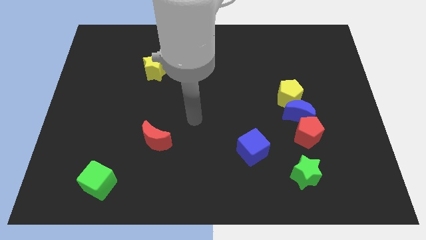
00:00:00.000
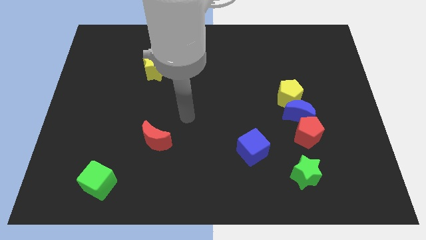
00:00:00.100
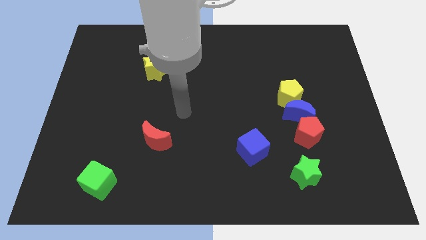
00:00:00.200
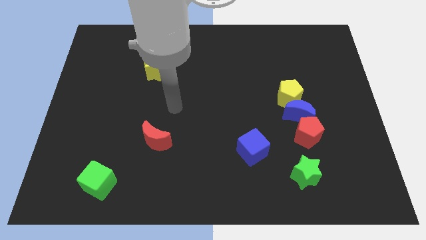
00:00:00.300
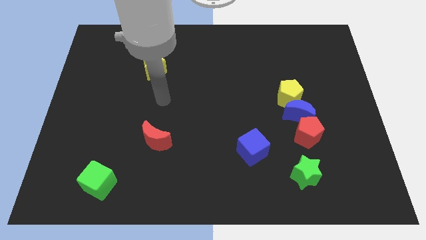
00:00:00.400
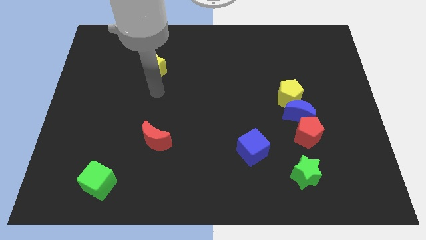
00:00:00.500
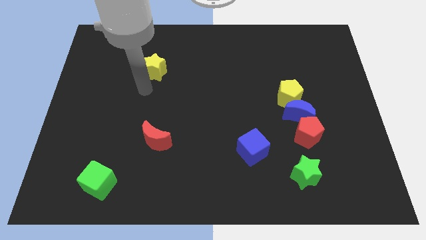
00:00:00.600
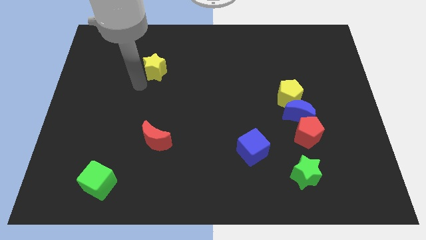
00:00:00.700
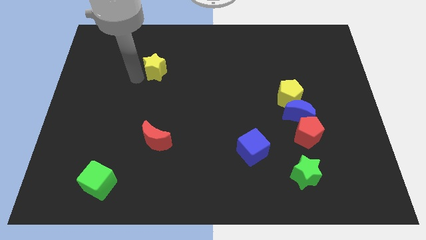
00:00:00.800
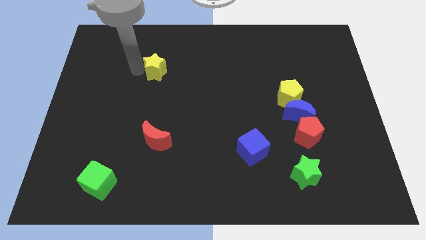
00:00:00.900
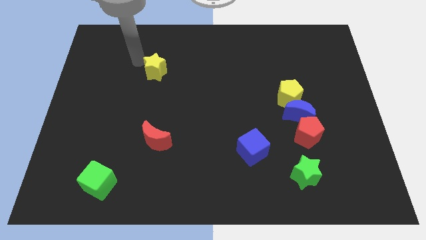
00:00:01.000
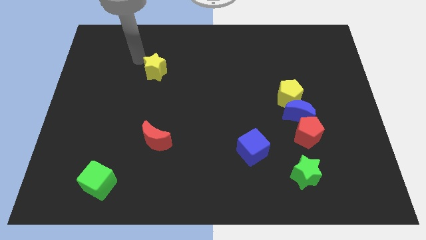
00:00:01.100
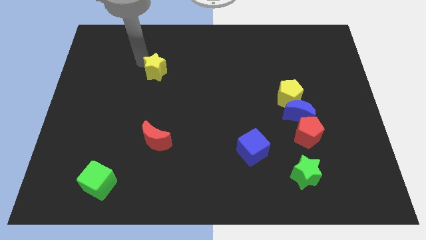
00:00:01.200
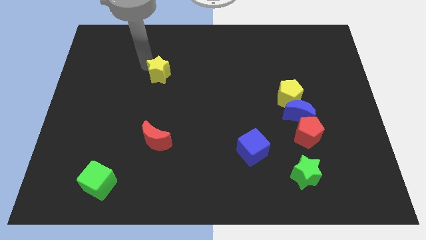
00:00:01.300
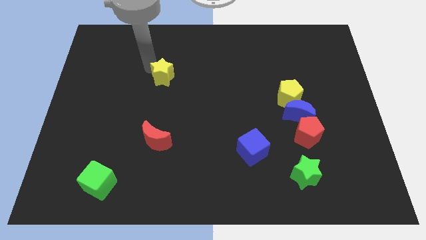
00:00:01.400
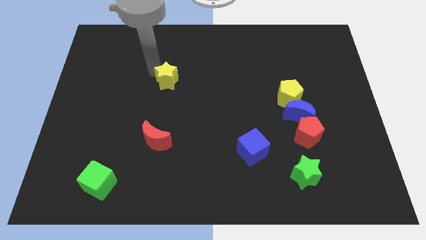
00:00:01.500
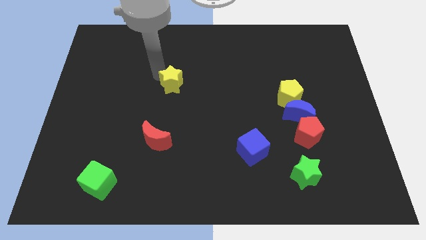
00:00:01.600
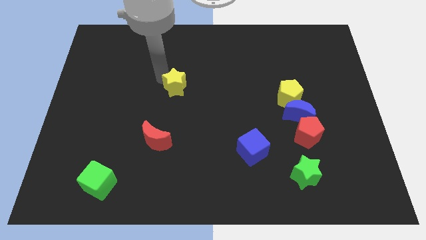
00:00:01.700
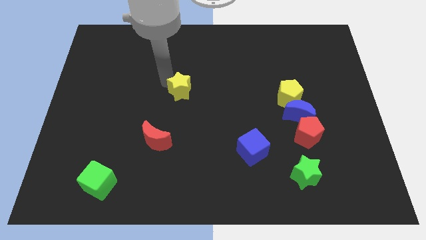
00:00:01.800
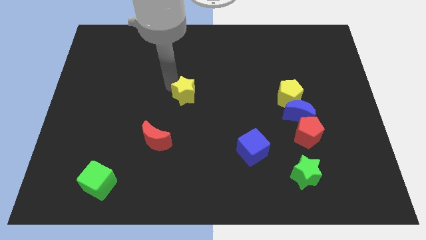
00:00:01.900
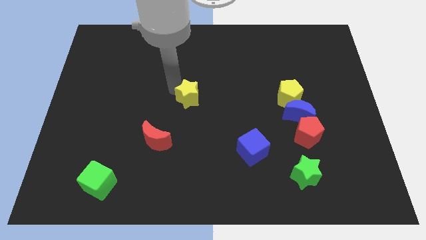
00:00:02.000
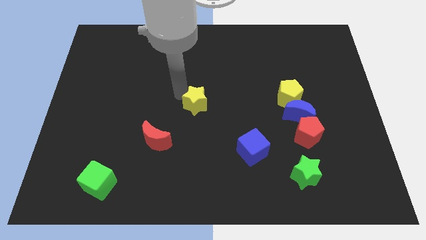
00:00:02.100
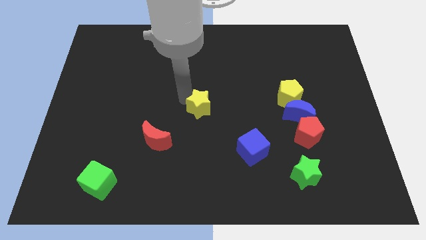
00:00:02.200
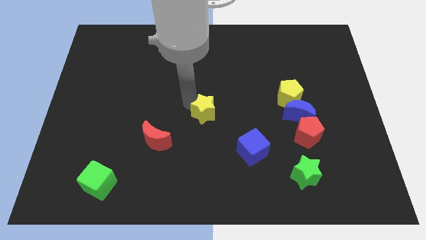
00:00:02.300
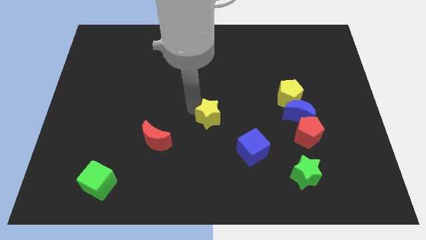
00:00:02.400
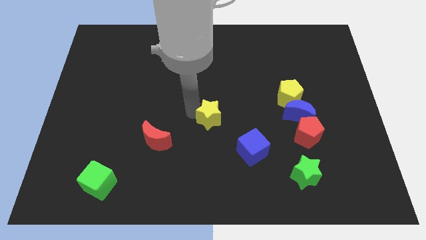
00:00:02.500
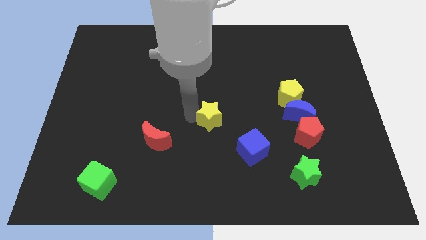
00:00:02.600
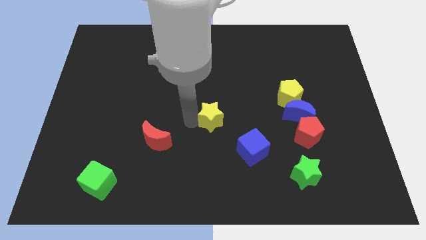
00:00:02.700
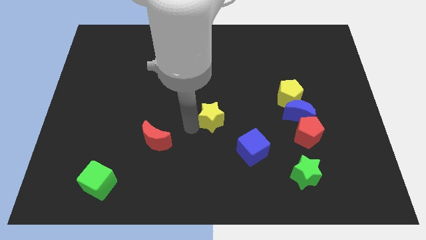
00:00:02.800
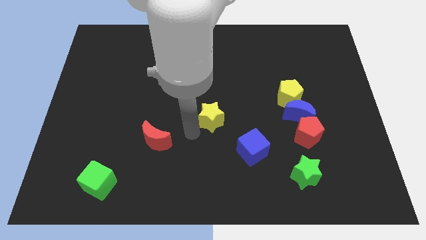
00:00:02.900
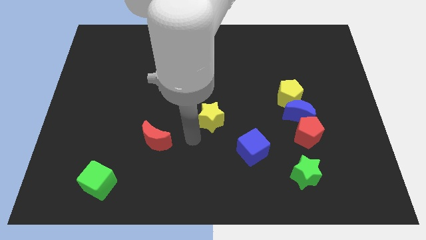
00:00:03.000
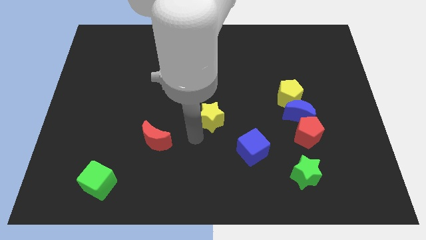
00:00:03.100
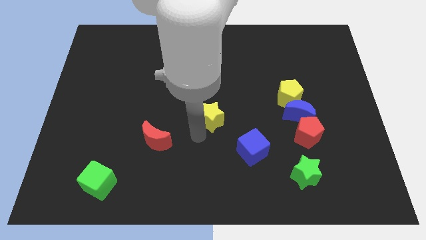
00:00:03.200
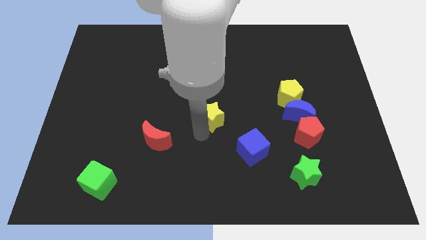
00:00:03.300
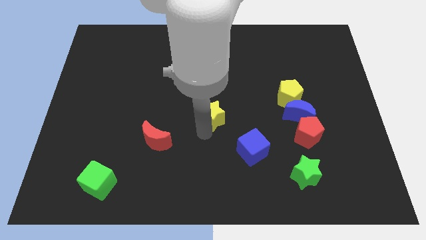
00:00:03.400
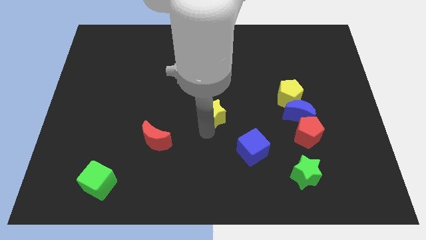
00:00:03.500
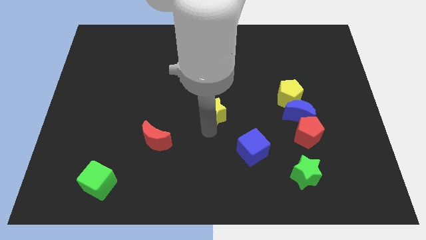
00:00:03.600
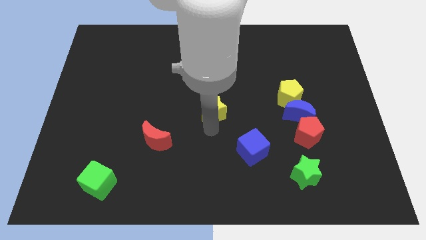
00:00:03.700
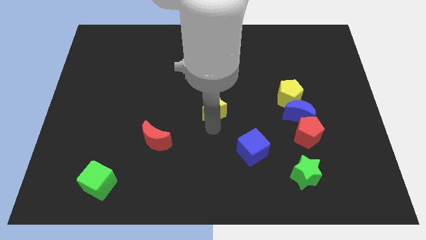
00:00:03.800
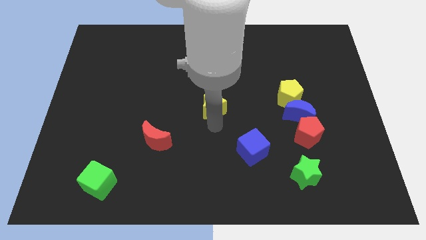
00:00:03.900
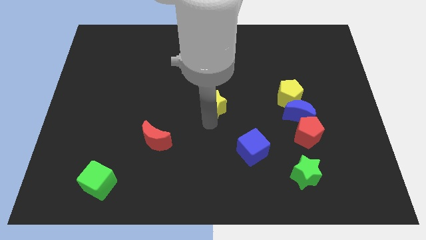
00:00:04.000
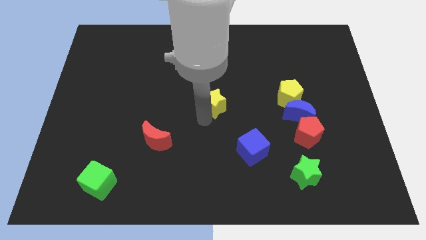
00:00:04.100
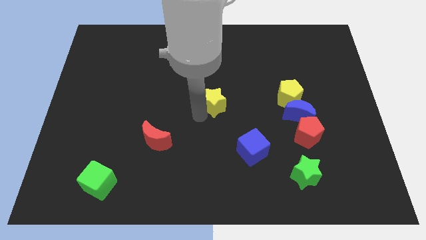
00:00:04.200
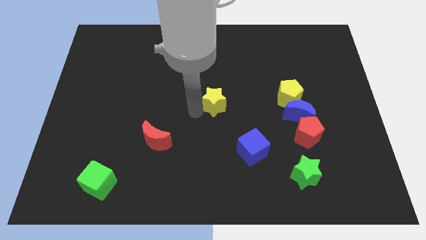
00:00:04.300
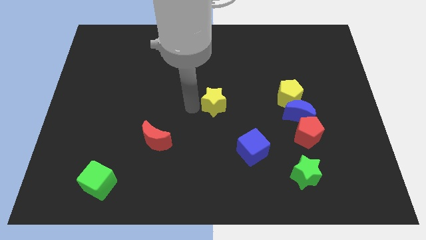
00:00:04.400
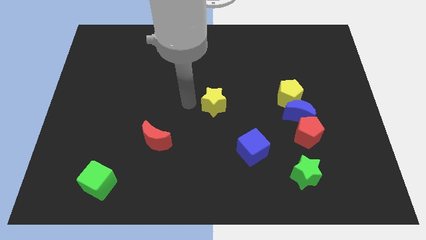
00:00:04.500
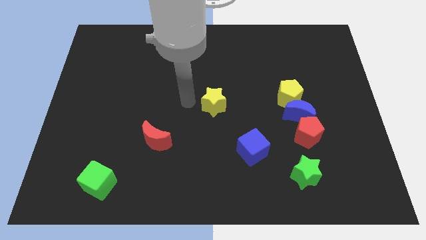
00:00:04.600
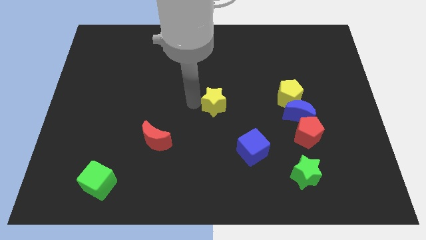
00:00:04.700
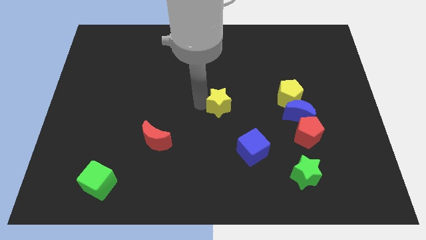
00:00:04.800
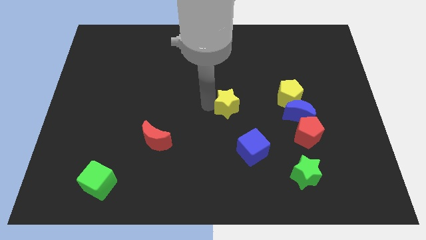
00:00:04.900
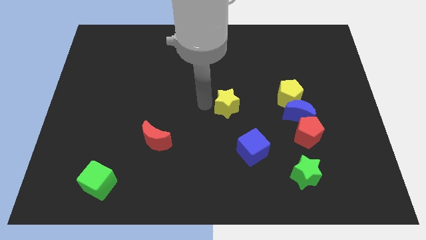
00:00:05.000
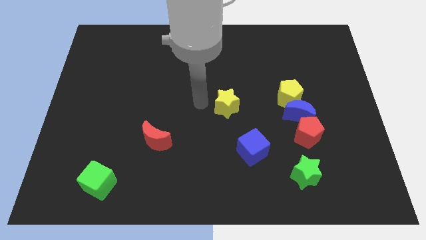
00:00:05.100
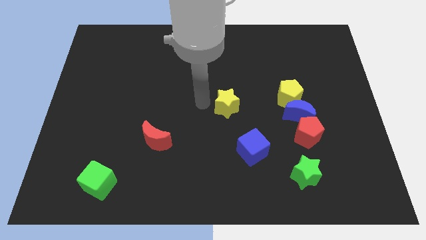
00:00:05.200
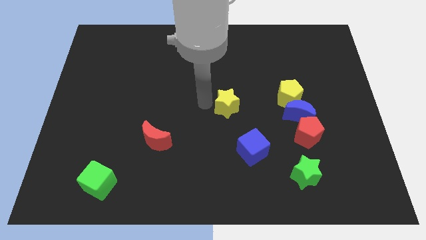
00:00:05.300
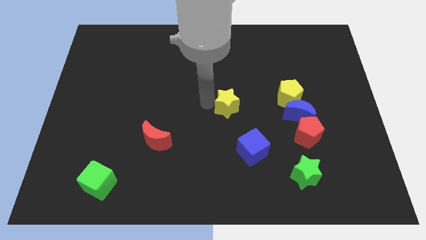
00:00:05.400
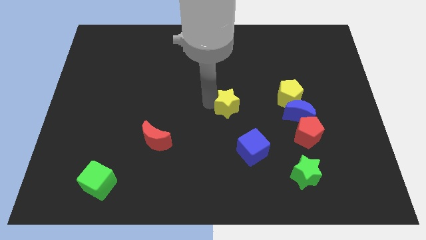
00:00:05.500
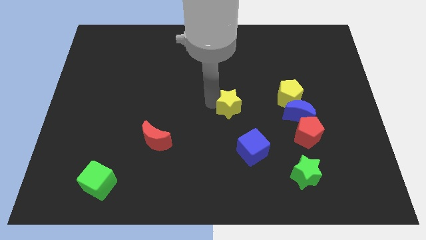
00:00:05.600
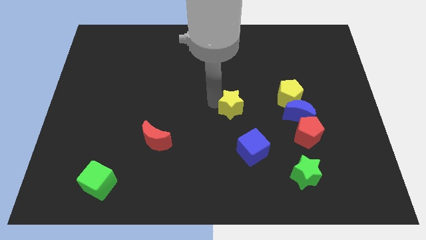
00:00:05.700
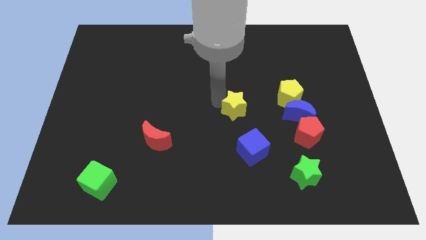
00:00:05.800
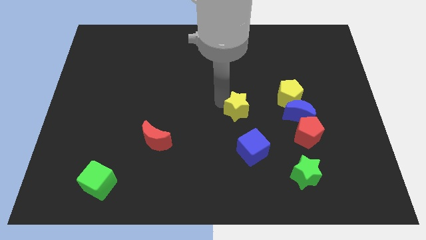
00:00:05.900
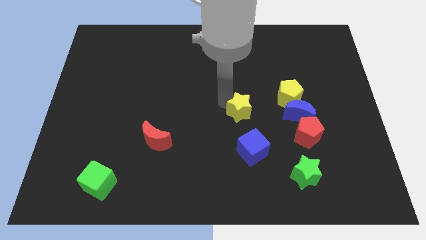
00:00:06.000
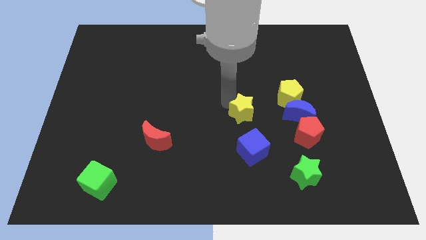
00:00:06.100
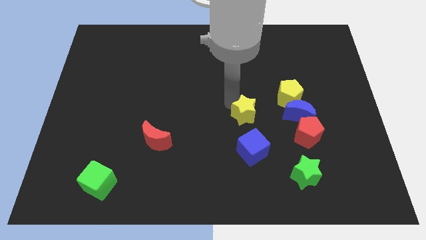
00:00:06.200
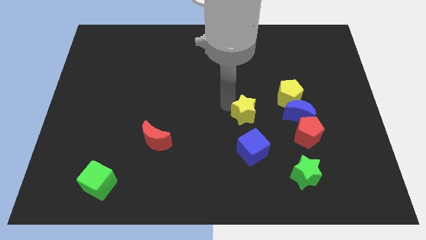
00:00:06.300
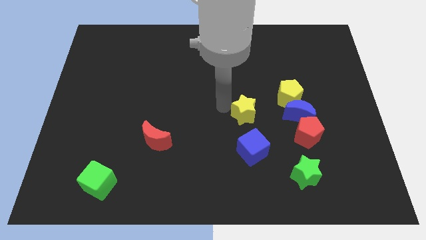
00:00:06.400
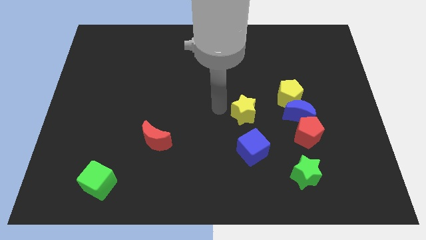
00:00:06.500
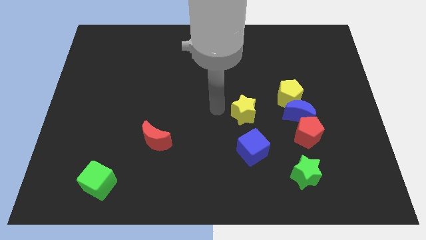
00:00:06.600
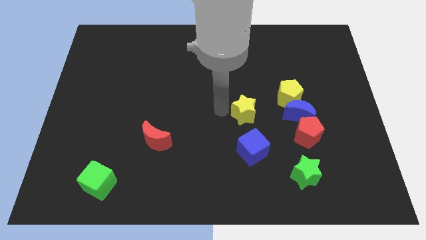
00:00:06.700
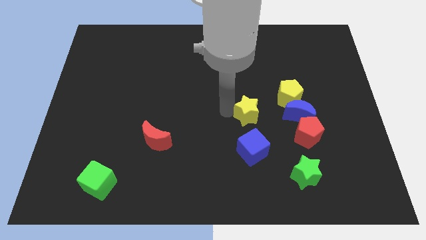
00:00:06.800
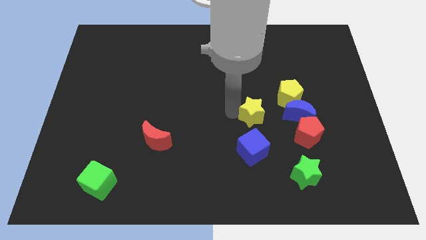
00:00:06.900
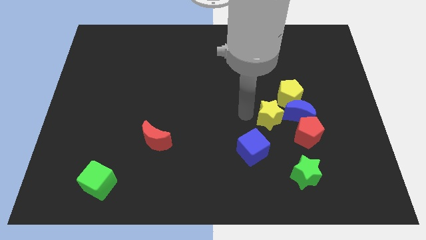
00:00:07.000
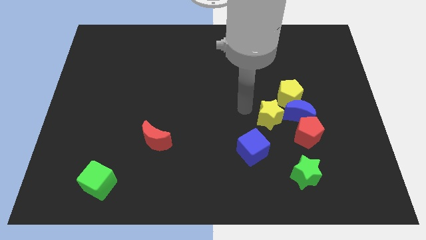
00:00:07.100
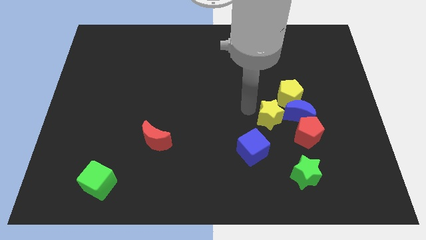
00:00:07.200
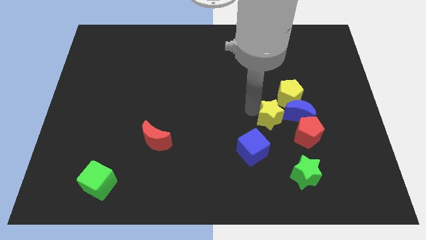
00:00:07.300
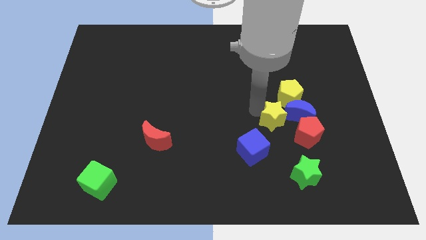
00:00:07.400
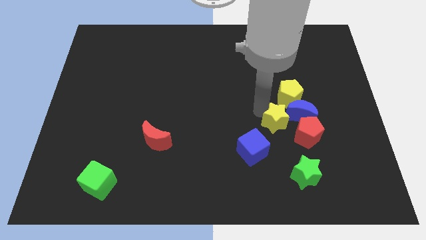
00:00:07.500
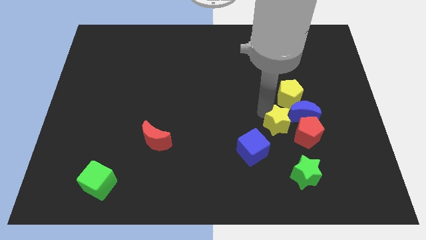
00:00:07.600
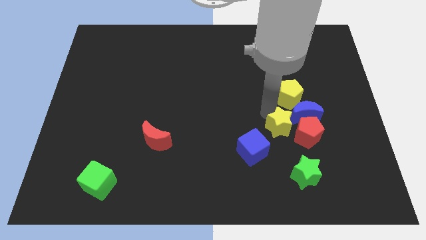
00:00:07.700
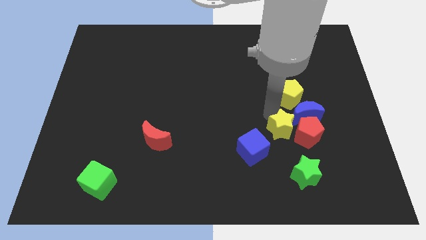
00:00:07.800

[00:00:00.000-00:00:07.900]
move the yellow star next to the red pentagon
